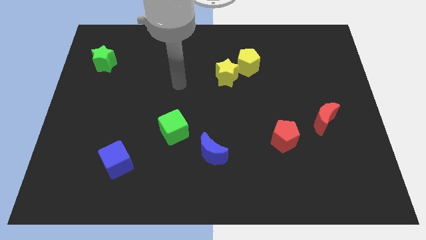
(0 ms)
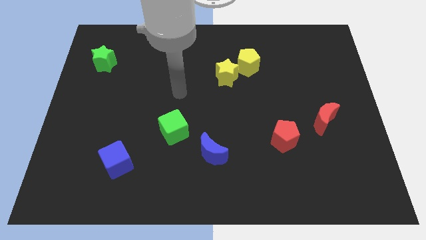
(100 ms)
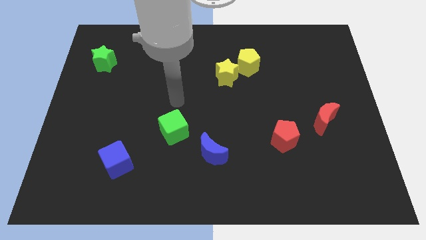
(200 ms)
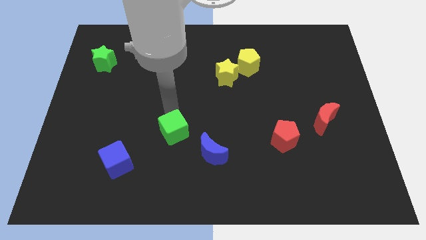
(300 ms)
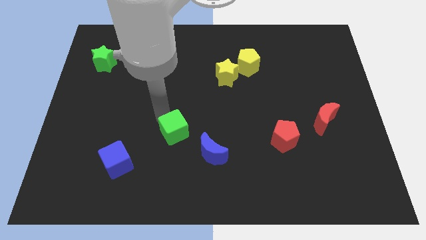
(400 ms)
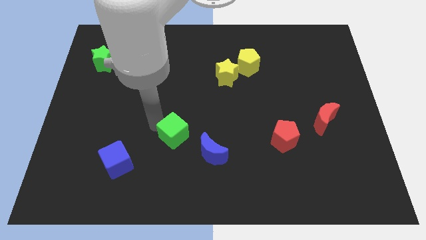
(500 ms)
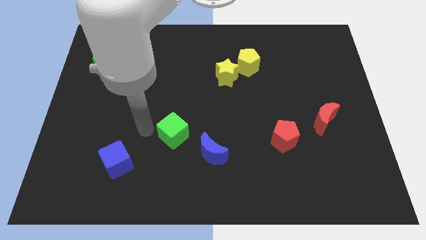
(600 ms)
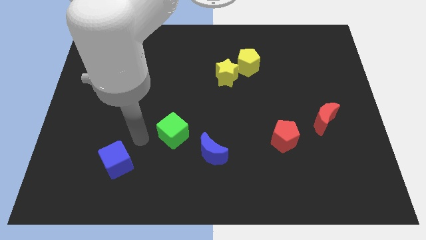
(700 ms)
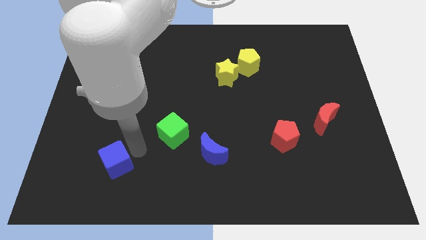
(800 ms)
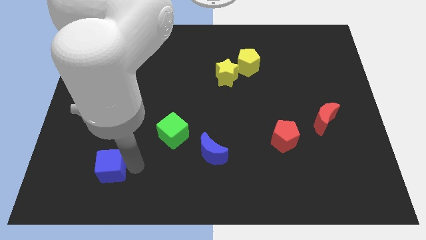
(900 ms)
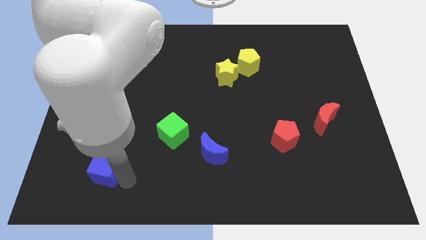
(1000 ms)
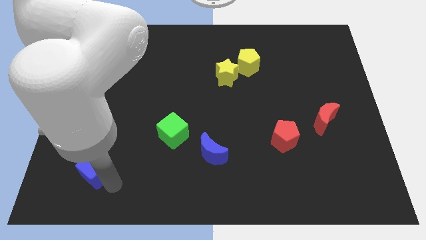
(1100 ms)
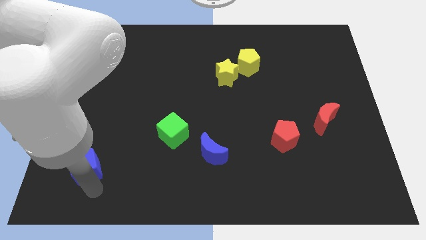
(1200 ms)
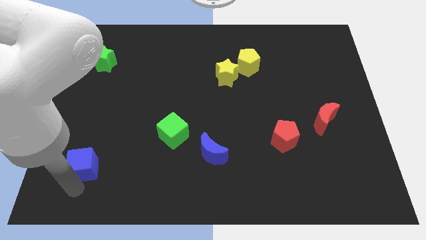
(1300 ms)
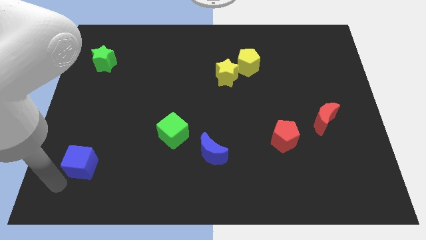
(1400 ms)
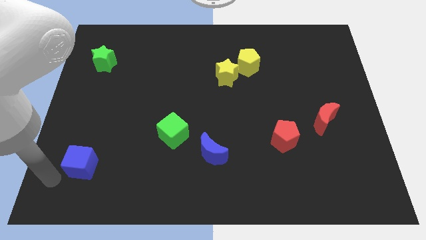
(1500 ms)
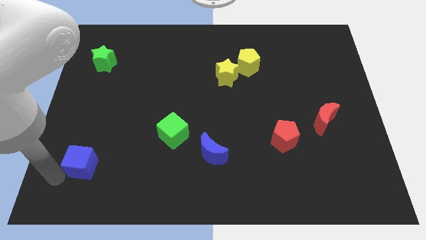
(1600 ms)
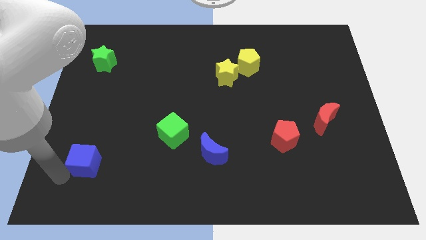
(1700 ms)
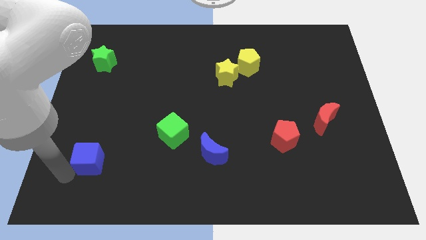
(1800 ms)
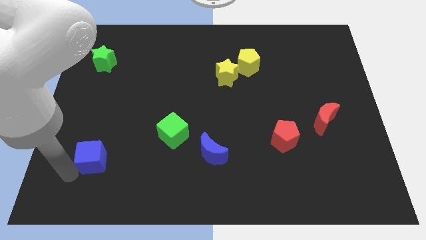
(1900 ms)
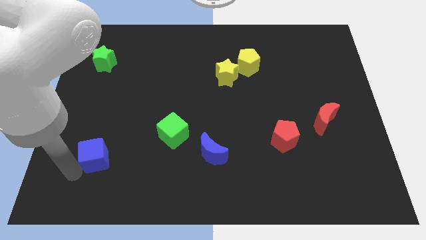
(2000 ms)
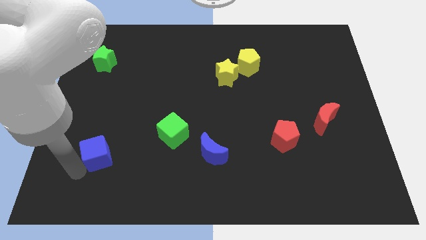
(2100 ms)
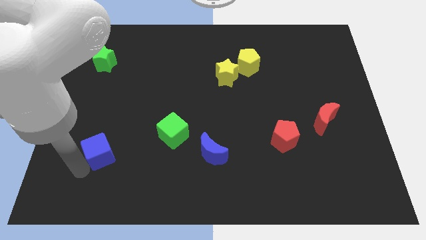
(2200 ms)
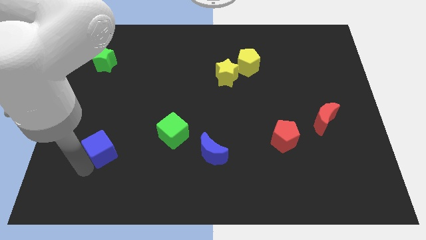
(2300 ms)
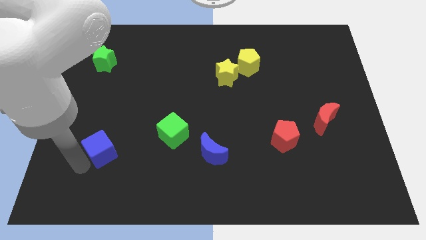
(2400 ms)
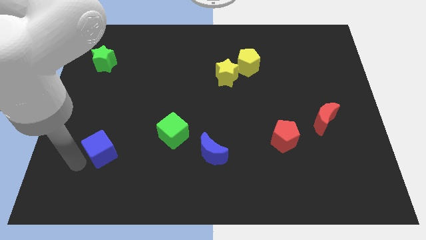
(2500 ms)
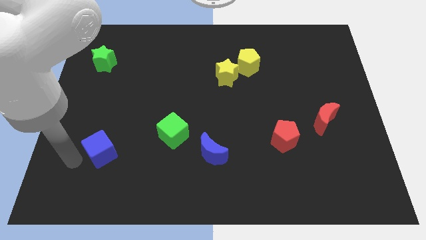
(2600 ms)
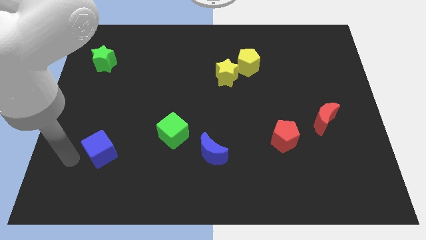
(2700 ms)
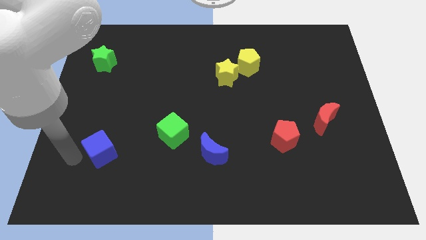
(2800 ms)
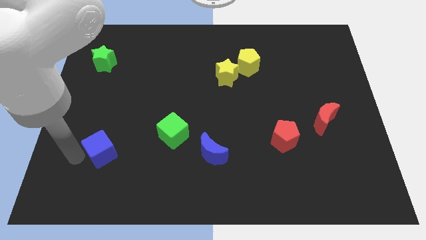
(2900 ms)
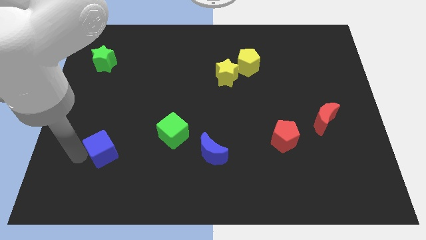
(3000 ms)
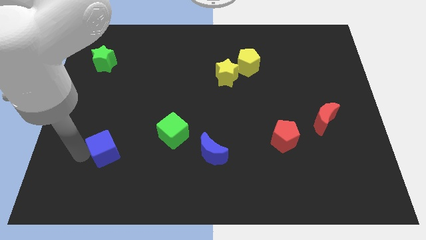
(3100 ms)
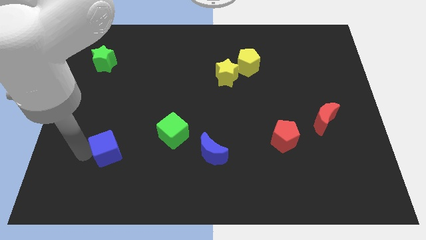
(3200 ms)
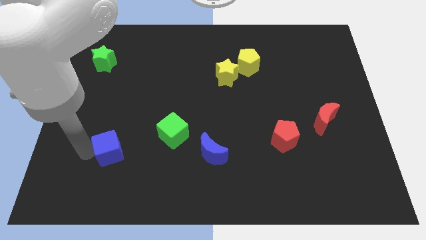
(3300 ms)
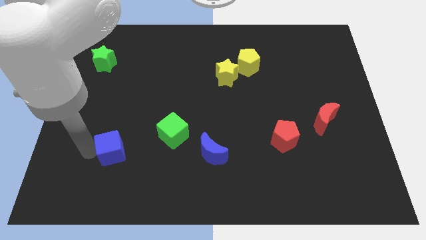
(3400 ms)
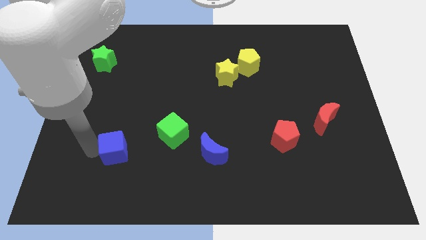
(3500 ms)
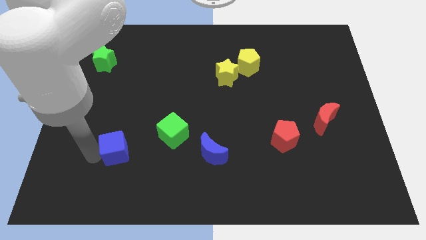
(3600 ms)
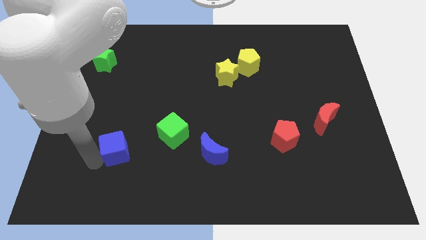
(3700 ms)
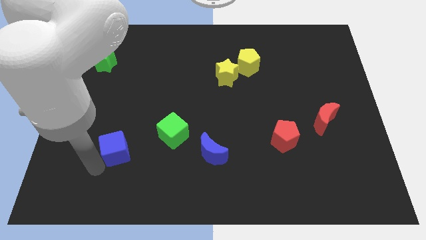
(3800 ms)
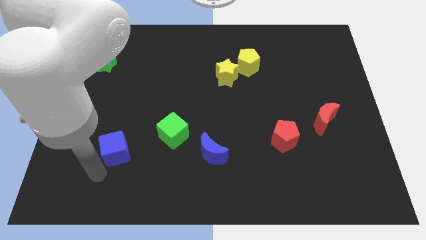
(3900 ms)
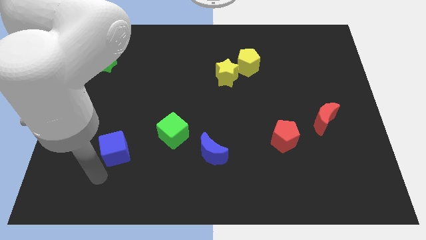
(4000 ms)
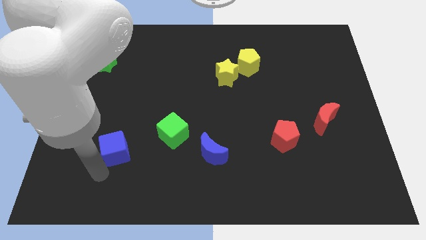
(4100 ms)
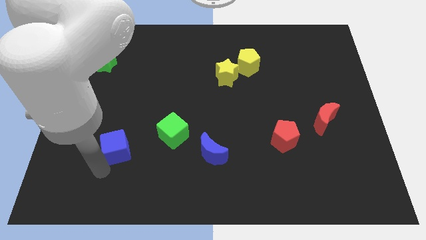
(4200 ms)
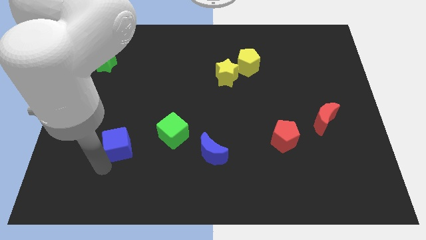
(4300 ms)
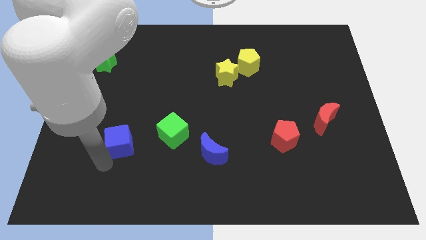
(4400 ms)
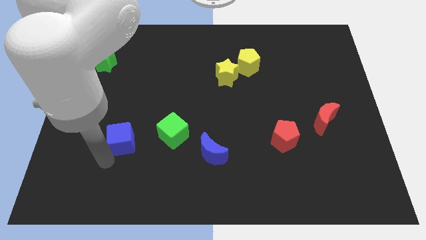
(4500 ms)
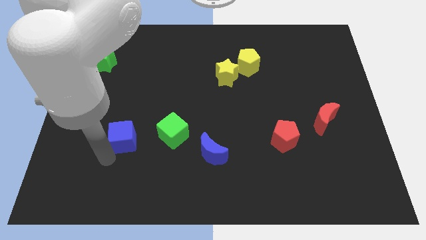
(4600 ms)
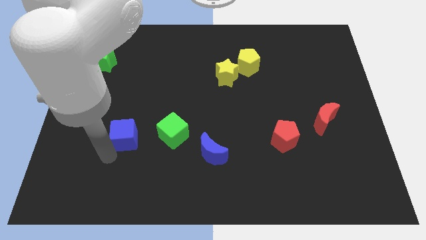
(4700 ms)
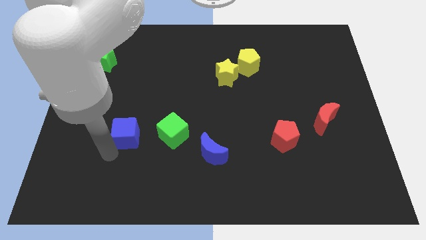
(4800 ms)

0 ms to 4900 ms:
slide the blue cube upwards a little bit

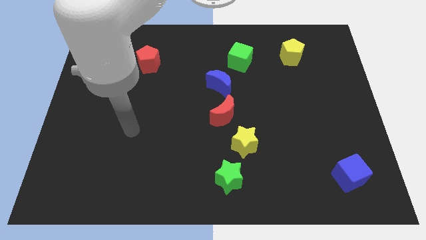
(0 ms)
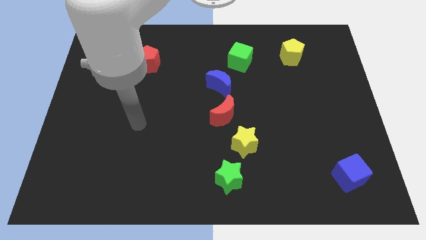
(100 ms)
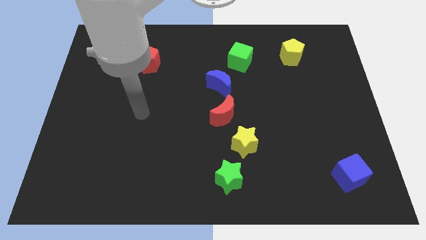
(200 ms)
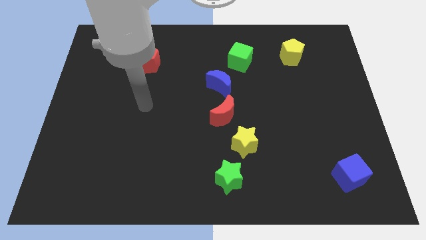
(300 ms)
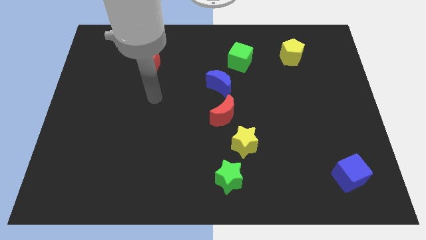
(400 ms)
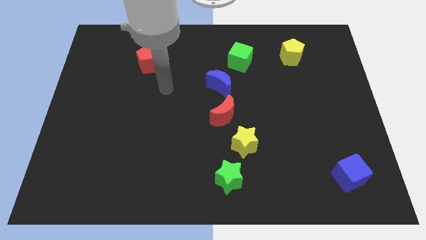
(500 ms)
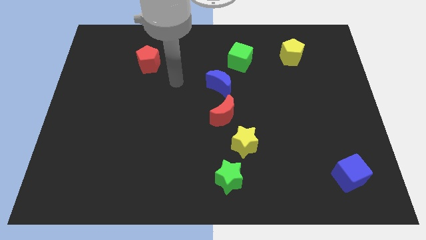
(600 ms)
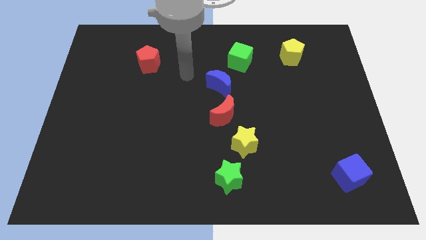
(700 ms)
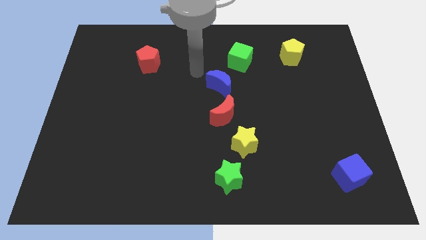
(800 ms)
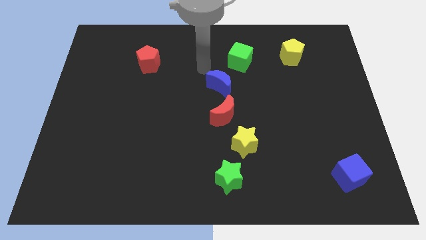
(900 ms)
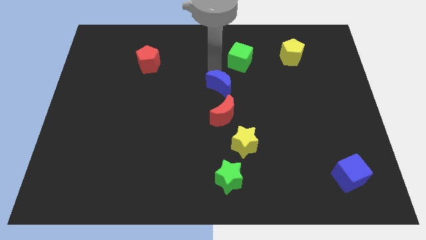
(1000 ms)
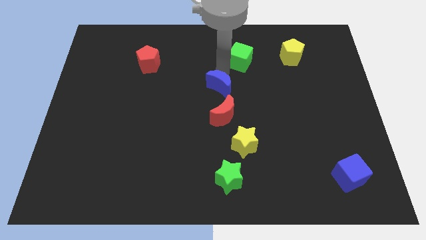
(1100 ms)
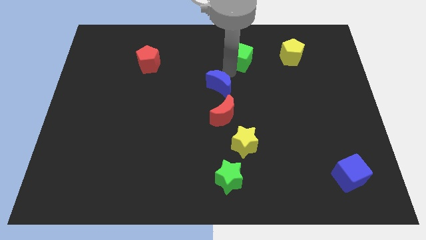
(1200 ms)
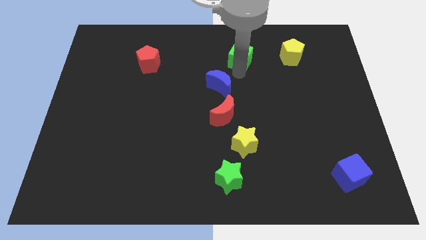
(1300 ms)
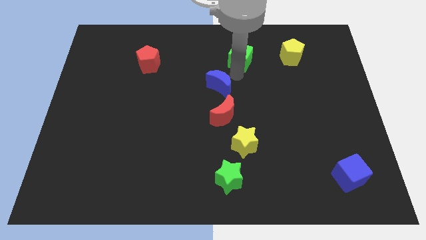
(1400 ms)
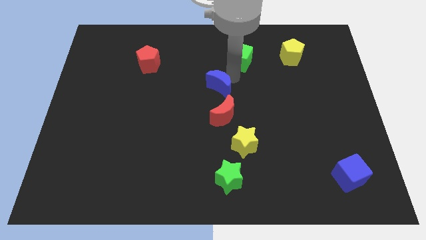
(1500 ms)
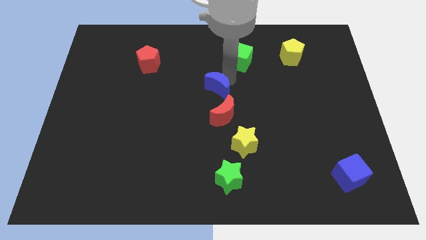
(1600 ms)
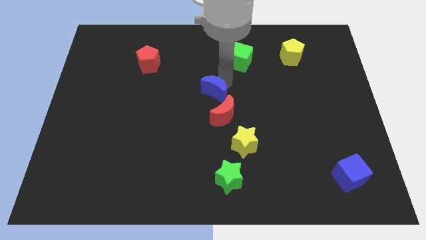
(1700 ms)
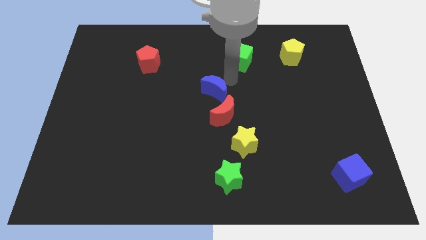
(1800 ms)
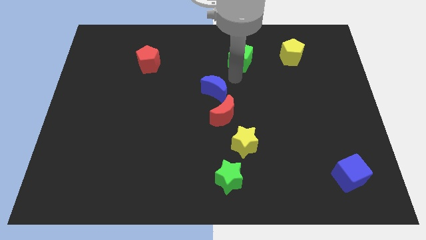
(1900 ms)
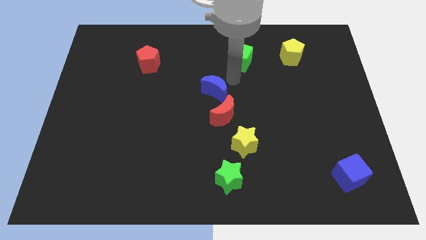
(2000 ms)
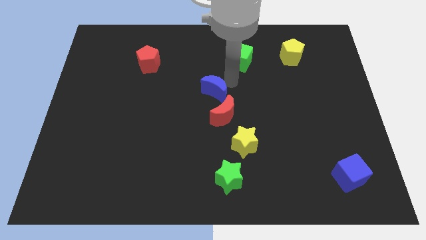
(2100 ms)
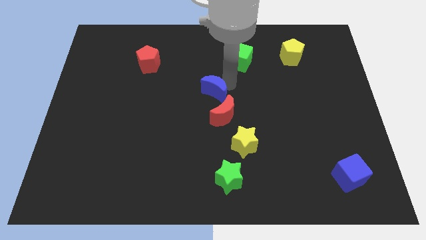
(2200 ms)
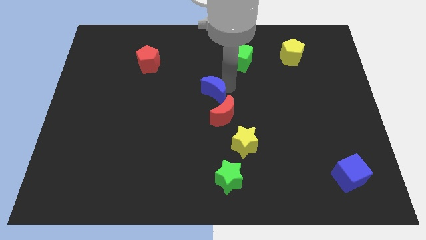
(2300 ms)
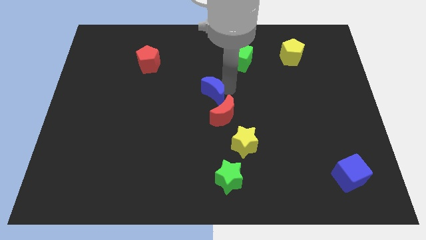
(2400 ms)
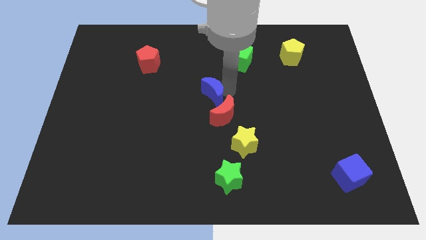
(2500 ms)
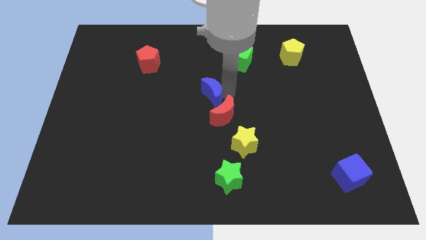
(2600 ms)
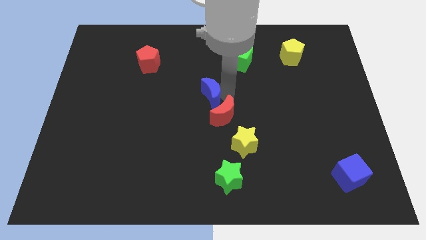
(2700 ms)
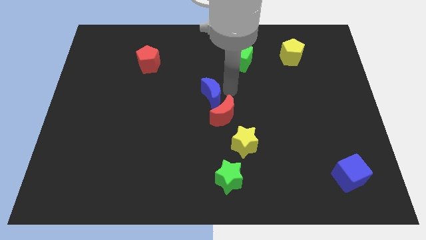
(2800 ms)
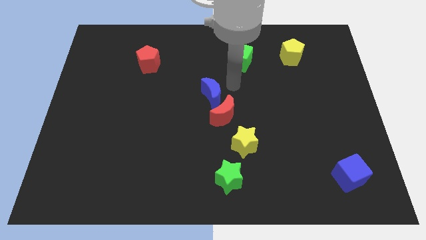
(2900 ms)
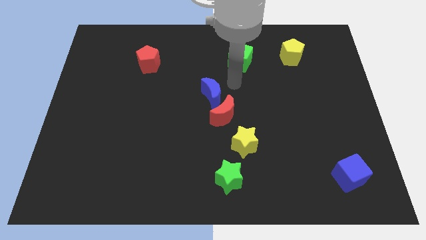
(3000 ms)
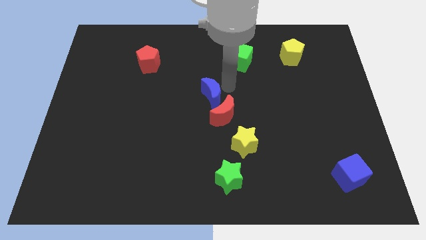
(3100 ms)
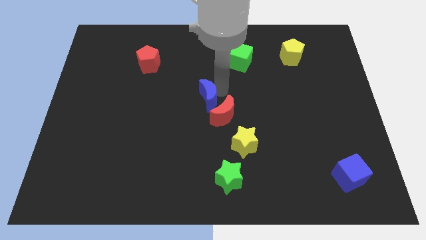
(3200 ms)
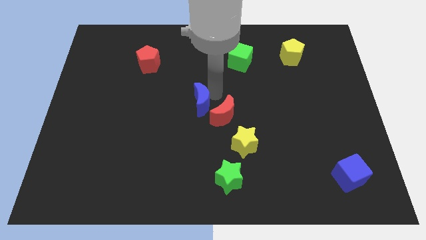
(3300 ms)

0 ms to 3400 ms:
slide the blue moon a little bit downwards and left
